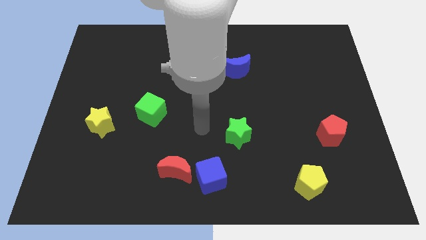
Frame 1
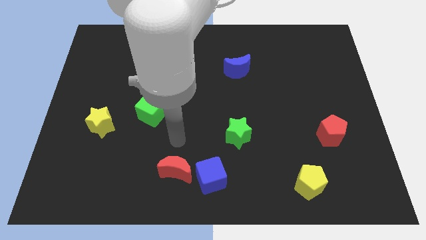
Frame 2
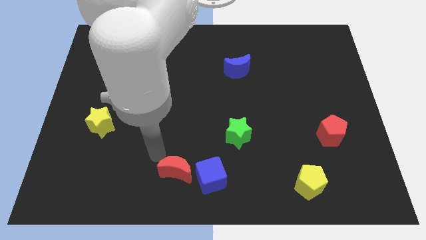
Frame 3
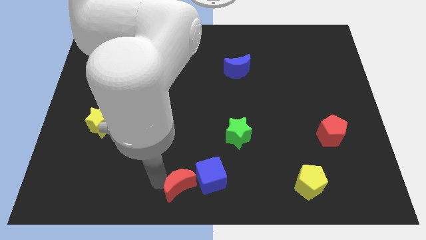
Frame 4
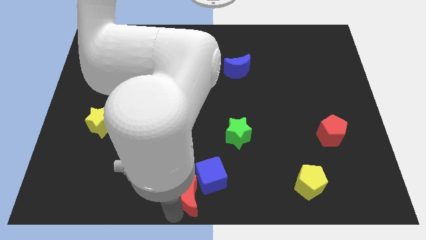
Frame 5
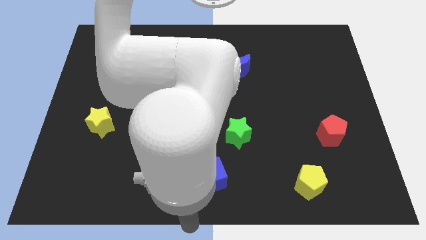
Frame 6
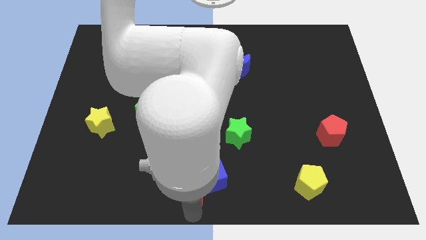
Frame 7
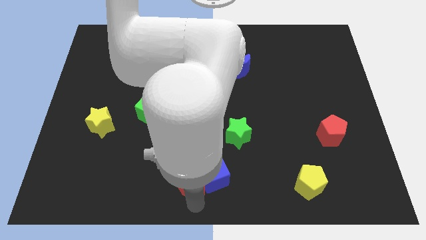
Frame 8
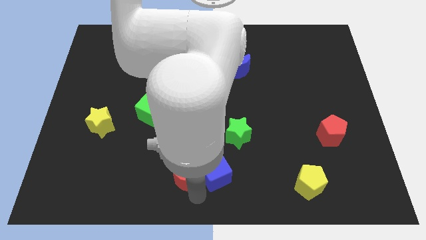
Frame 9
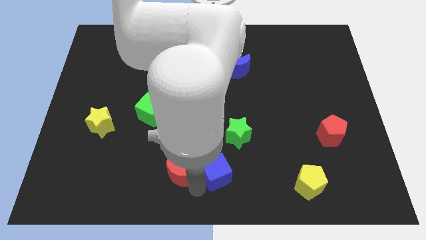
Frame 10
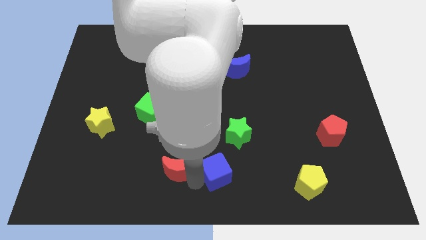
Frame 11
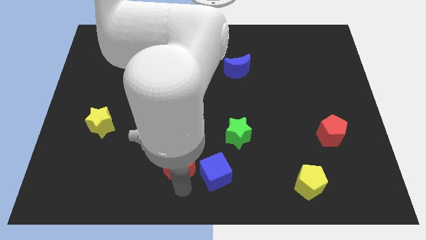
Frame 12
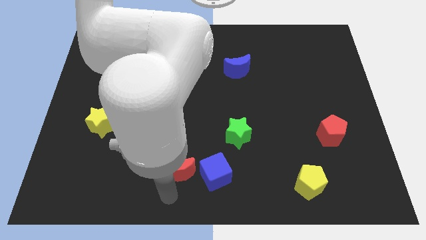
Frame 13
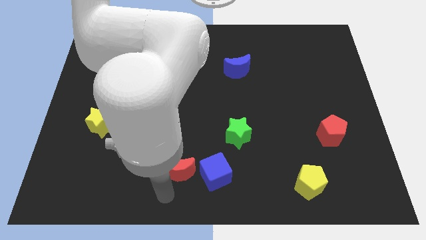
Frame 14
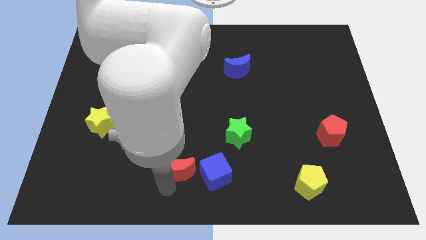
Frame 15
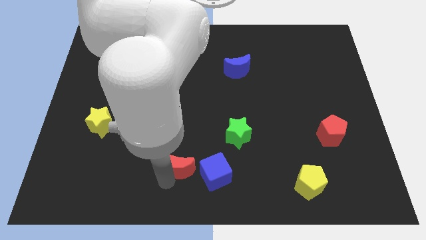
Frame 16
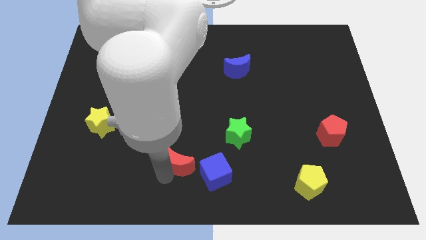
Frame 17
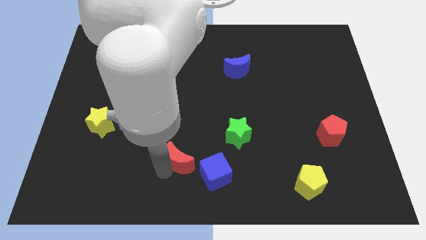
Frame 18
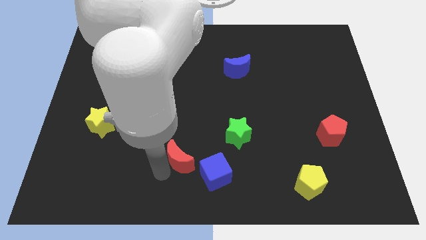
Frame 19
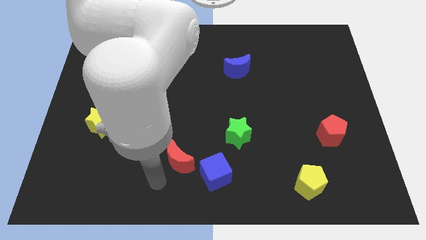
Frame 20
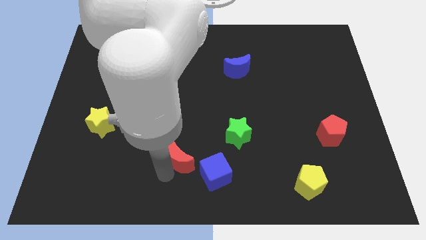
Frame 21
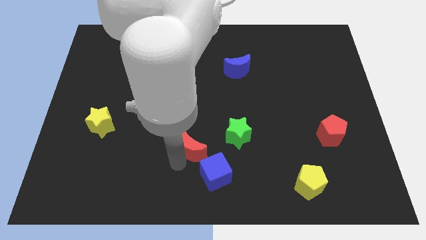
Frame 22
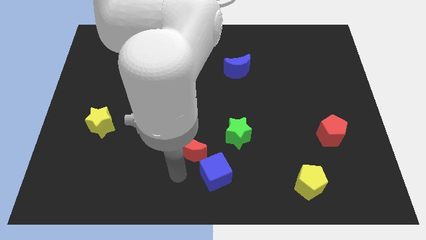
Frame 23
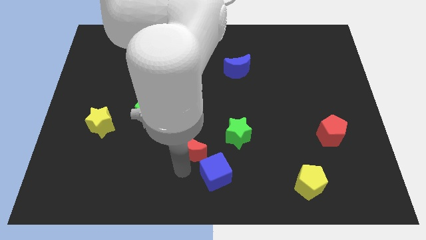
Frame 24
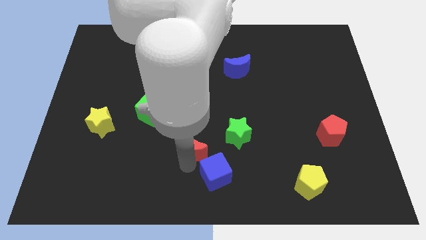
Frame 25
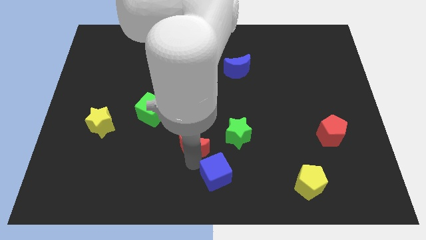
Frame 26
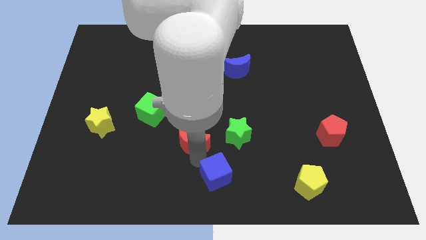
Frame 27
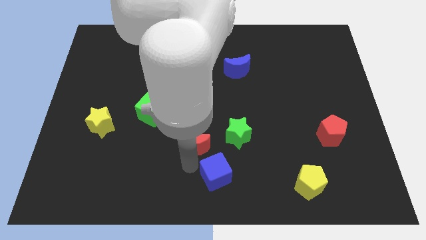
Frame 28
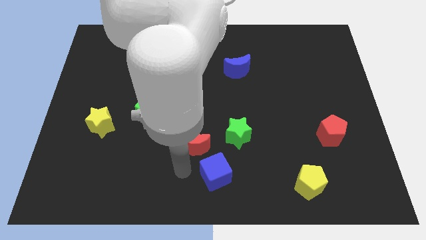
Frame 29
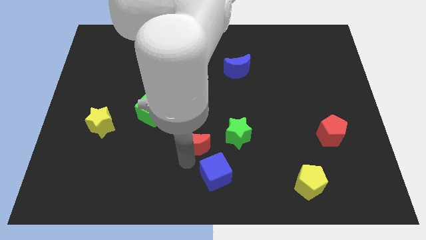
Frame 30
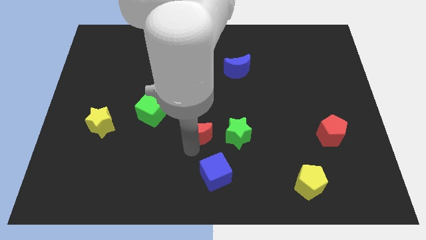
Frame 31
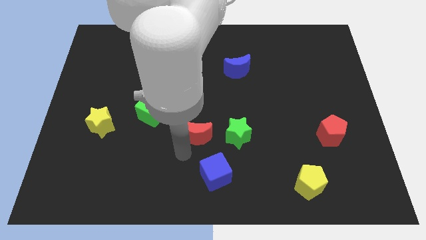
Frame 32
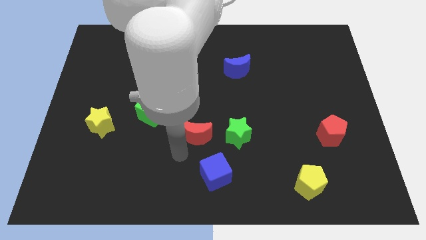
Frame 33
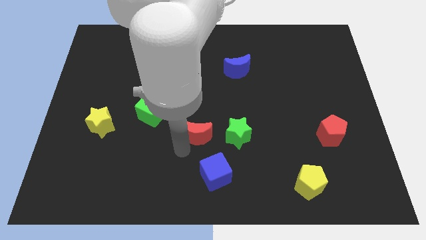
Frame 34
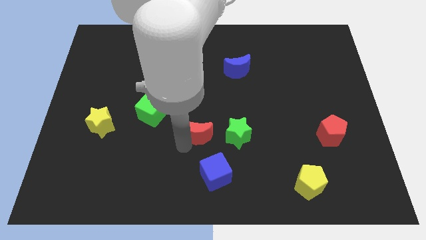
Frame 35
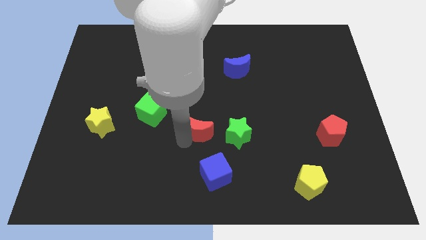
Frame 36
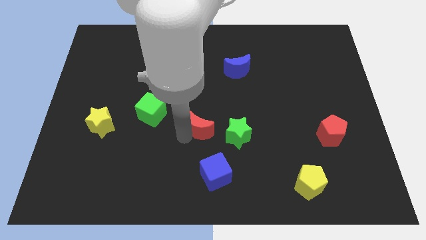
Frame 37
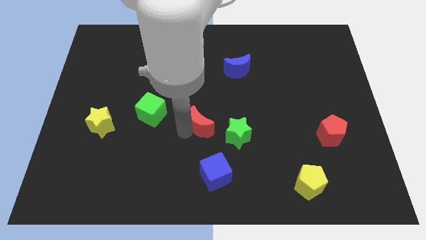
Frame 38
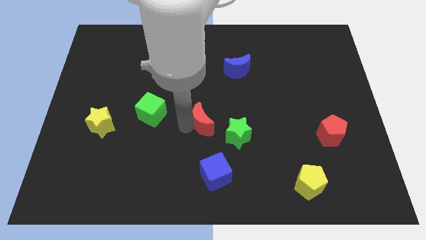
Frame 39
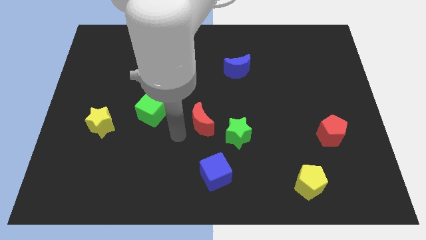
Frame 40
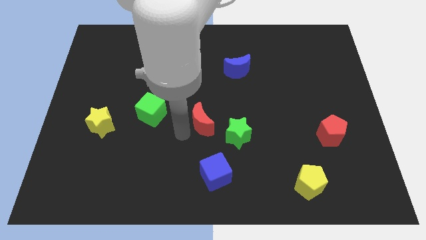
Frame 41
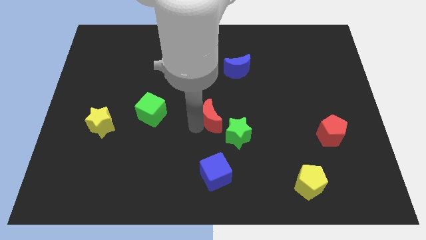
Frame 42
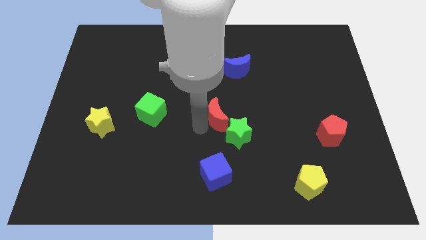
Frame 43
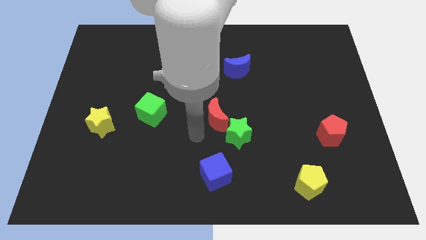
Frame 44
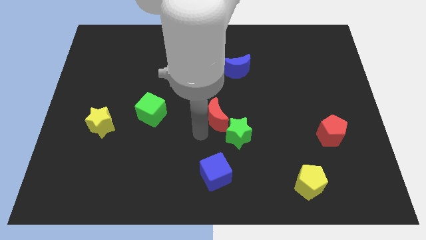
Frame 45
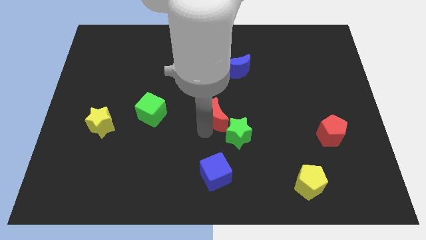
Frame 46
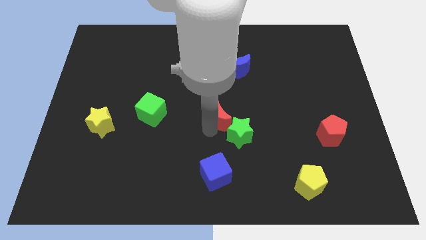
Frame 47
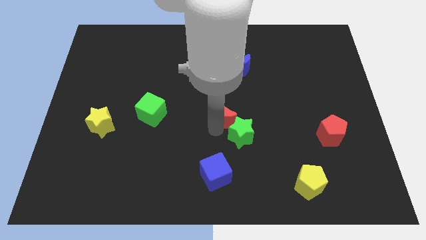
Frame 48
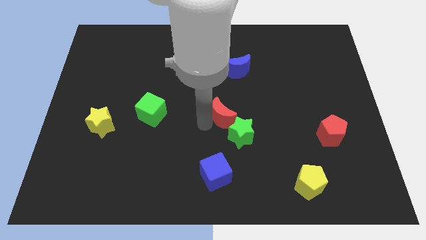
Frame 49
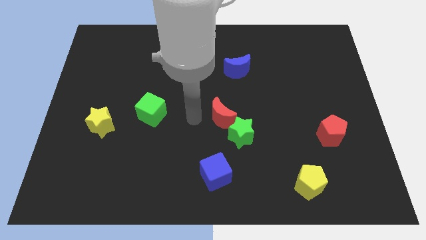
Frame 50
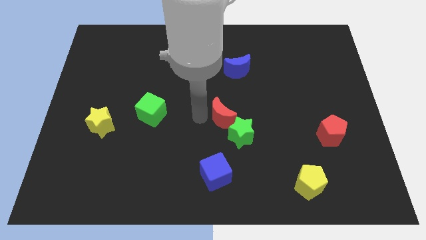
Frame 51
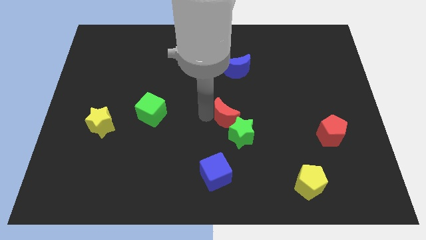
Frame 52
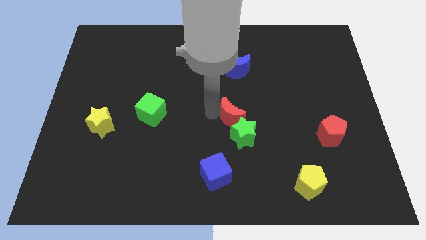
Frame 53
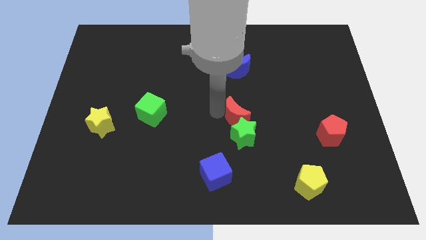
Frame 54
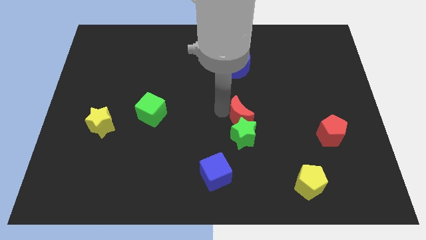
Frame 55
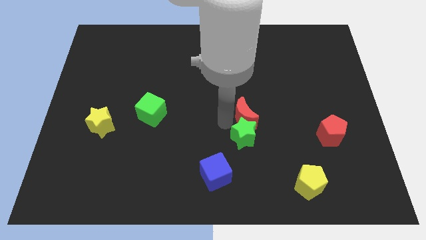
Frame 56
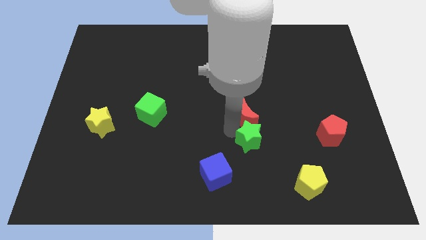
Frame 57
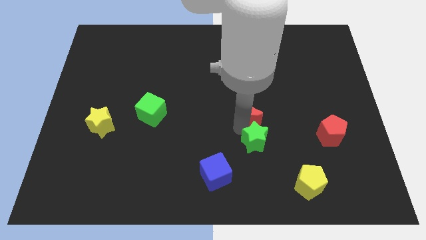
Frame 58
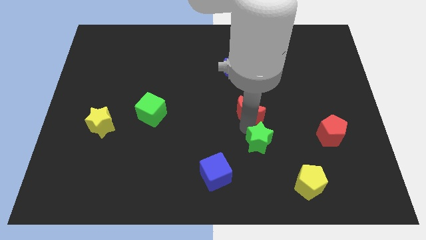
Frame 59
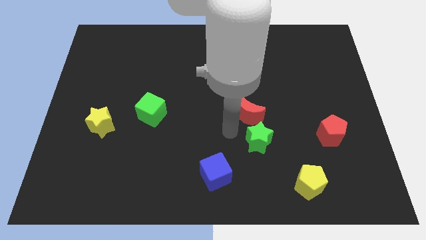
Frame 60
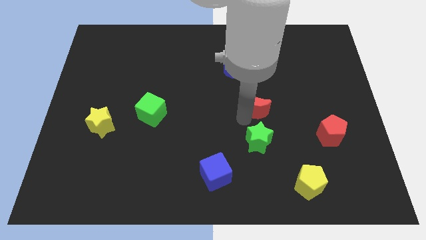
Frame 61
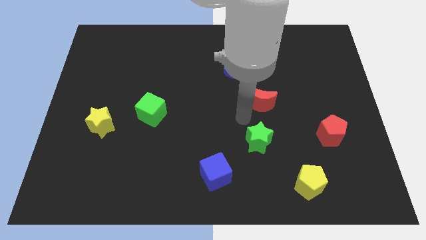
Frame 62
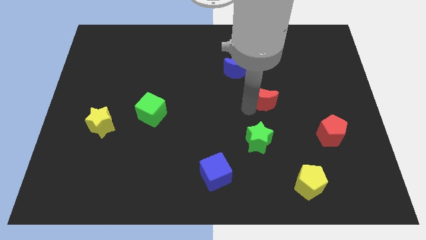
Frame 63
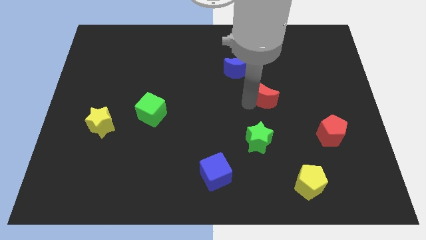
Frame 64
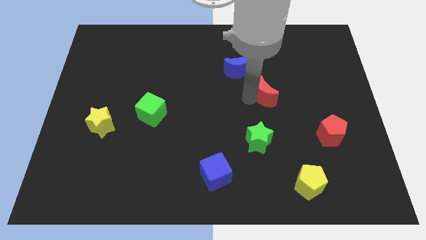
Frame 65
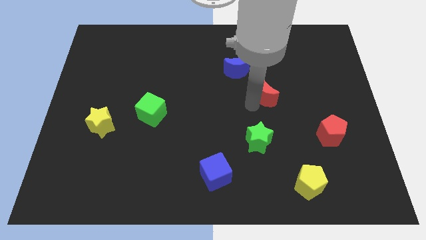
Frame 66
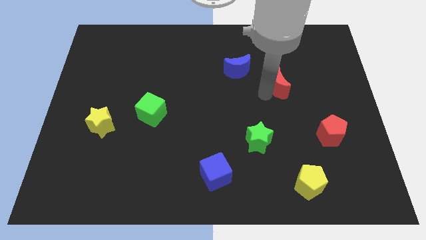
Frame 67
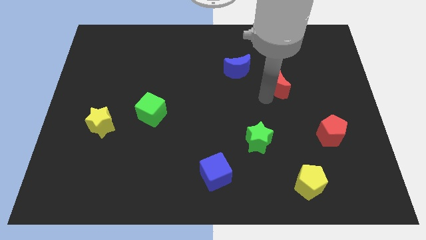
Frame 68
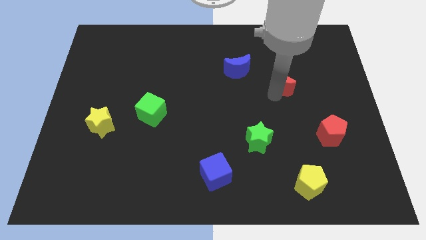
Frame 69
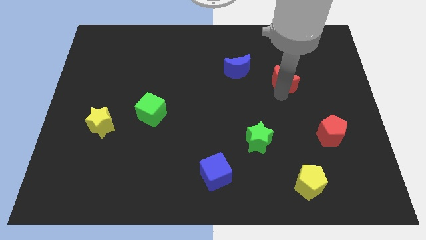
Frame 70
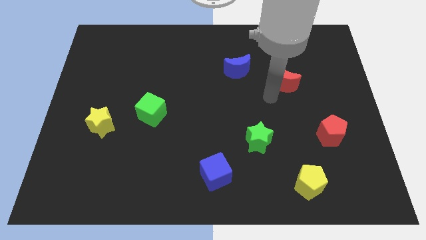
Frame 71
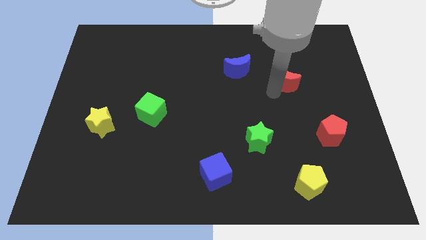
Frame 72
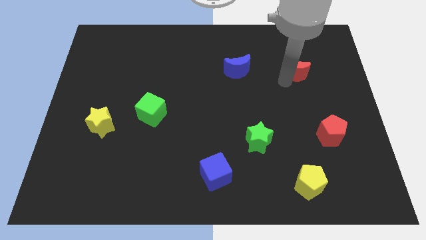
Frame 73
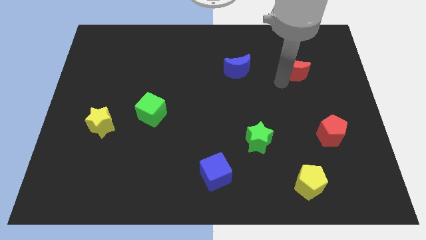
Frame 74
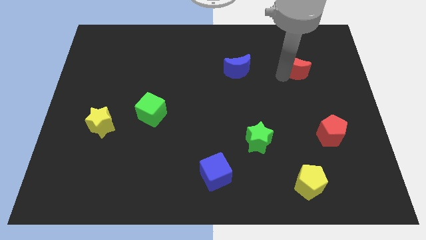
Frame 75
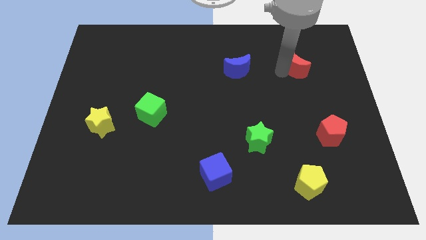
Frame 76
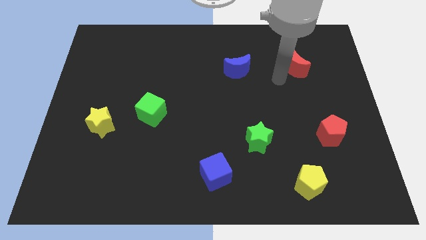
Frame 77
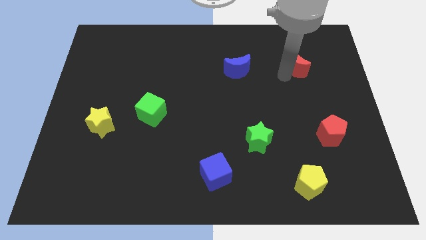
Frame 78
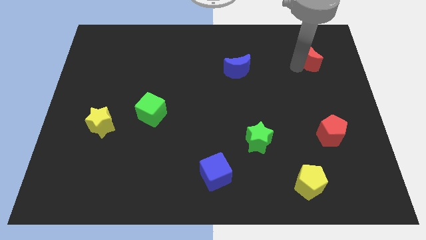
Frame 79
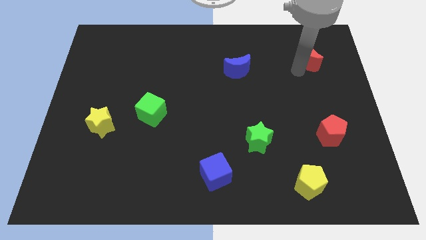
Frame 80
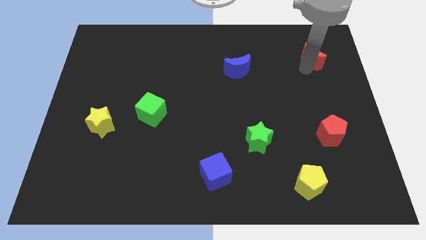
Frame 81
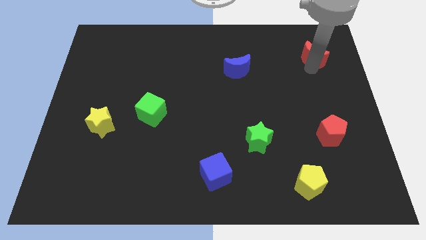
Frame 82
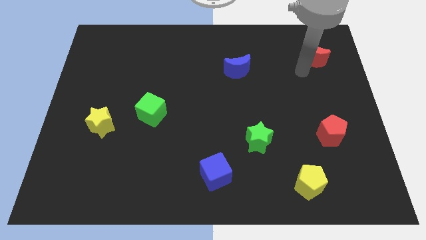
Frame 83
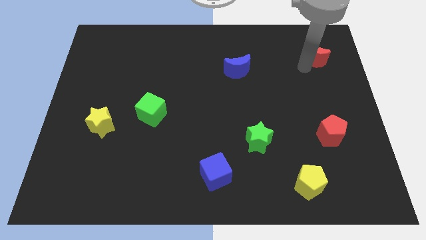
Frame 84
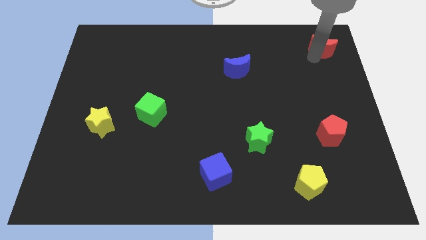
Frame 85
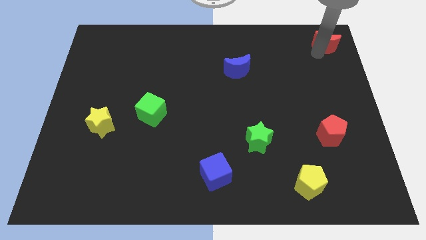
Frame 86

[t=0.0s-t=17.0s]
slide the red moon to the upper right corner
